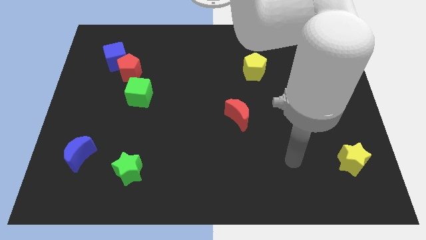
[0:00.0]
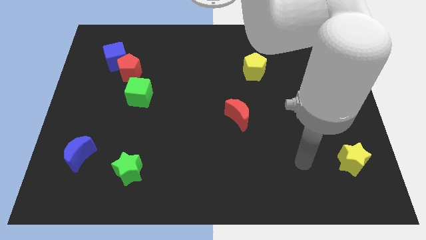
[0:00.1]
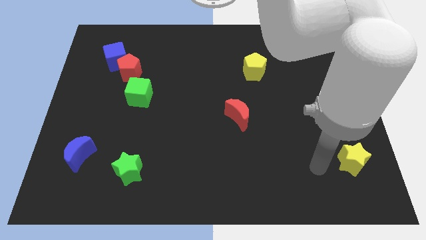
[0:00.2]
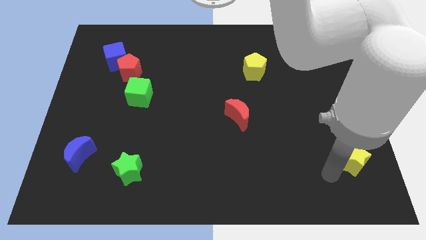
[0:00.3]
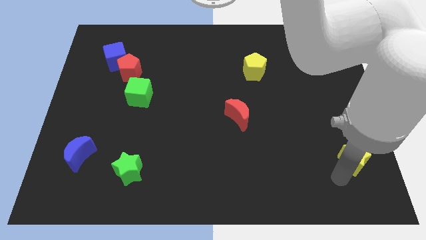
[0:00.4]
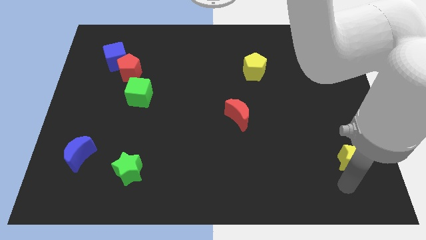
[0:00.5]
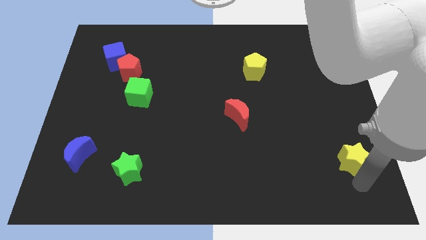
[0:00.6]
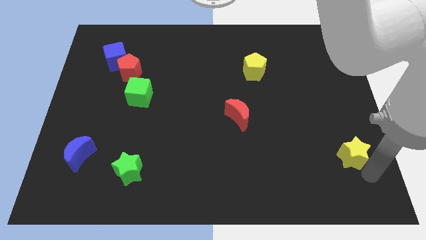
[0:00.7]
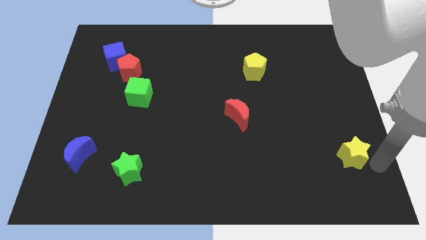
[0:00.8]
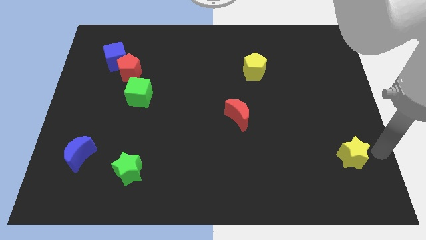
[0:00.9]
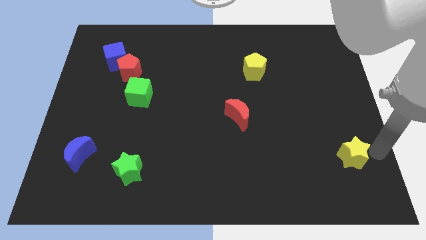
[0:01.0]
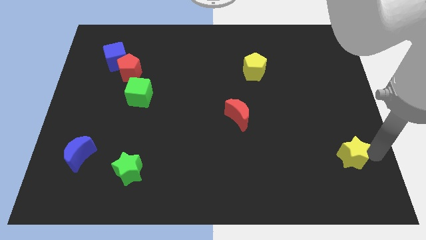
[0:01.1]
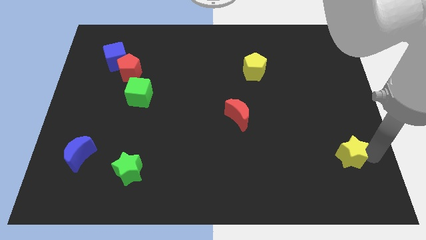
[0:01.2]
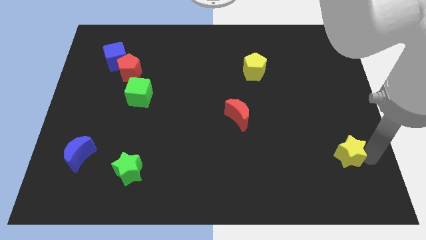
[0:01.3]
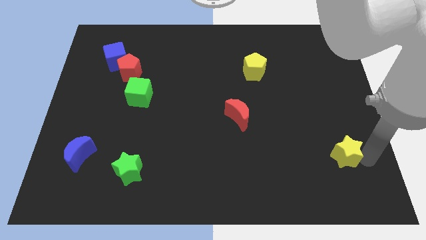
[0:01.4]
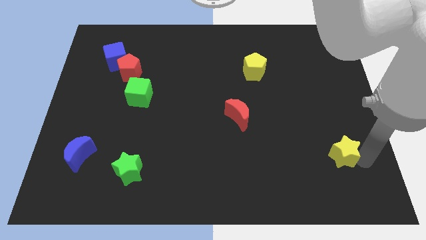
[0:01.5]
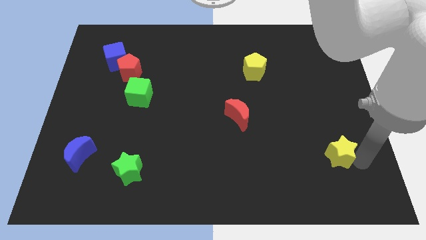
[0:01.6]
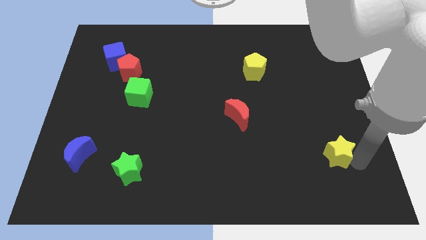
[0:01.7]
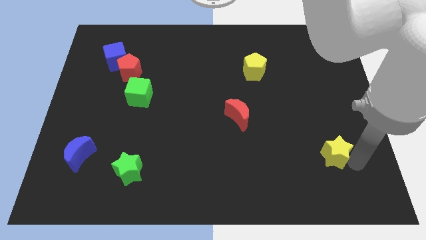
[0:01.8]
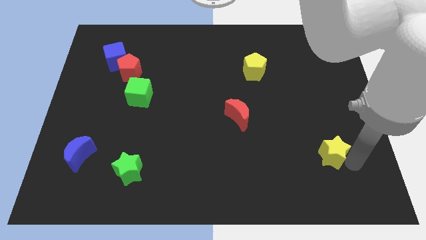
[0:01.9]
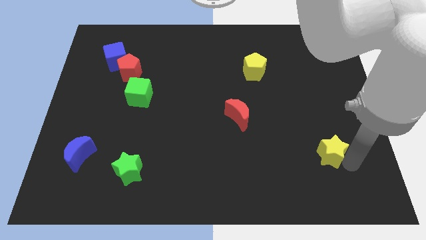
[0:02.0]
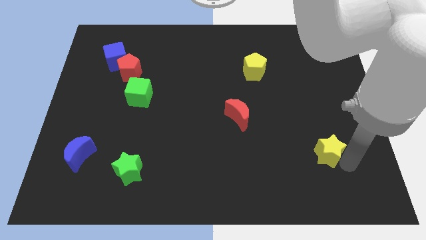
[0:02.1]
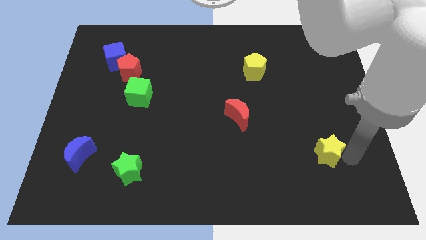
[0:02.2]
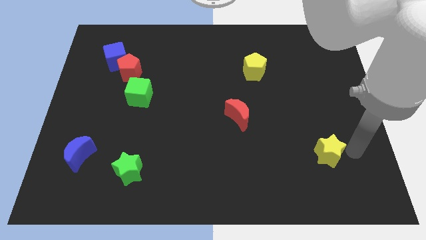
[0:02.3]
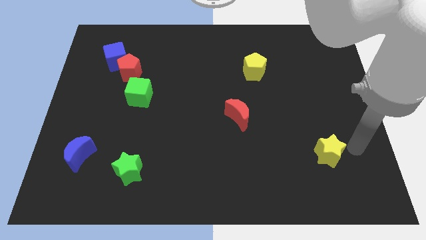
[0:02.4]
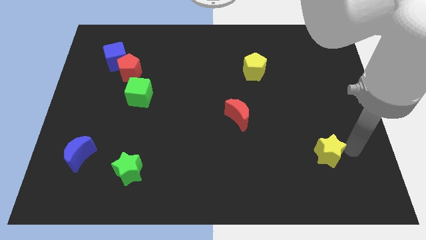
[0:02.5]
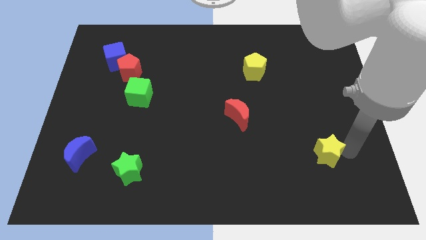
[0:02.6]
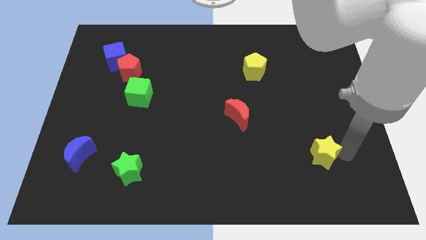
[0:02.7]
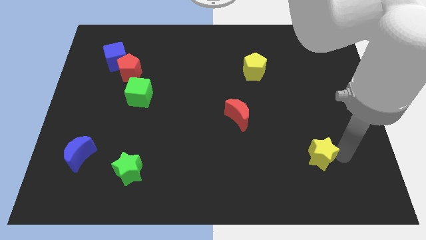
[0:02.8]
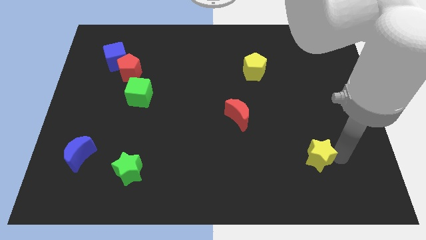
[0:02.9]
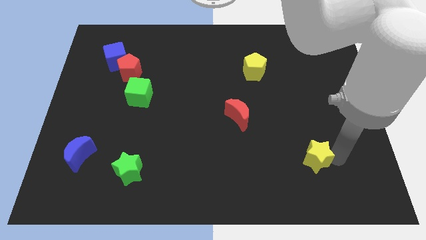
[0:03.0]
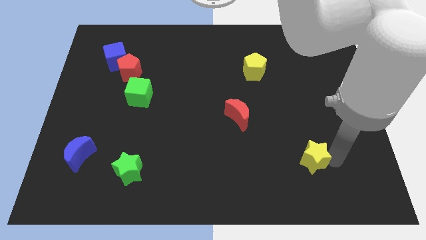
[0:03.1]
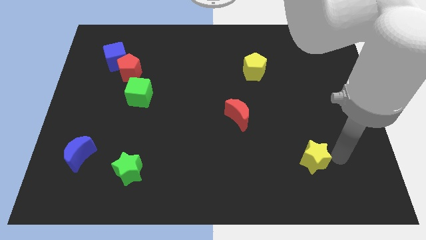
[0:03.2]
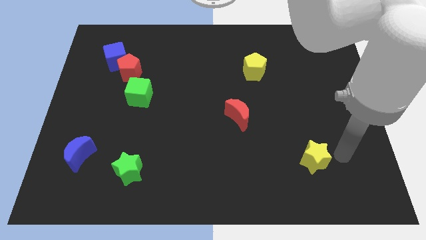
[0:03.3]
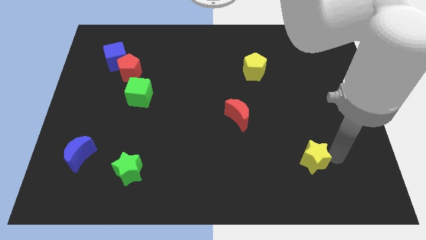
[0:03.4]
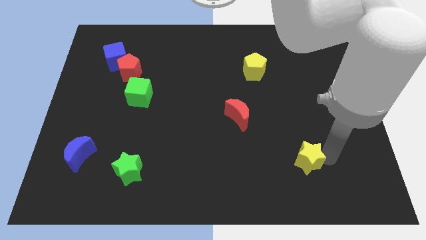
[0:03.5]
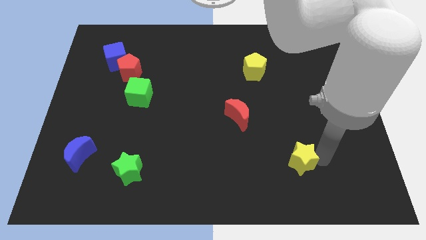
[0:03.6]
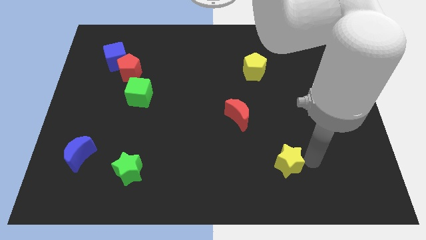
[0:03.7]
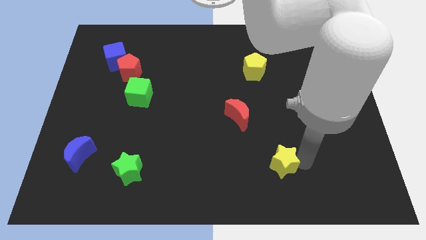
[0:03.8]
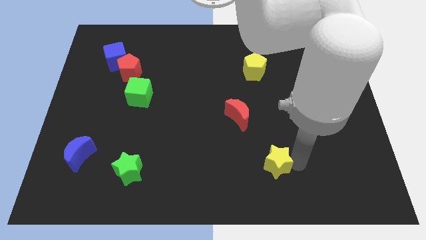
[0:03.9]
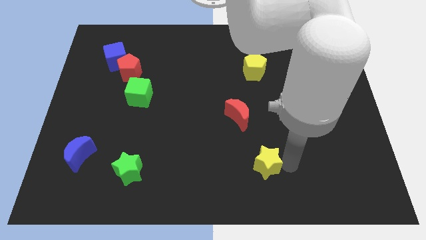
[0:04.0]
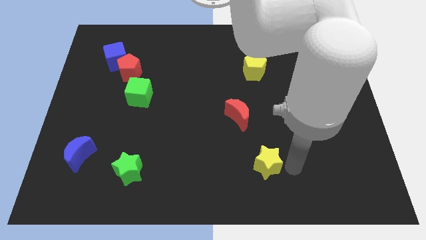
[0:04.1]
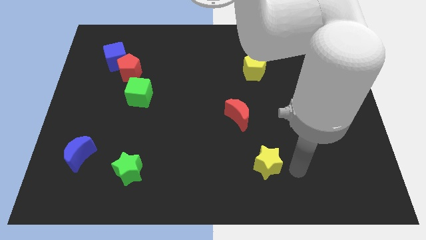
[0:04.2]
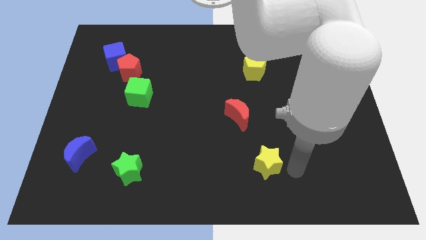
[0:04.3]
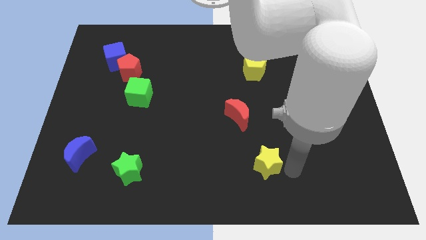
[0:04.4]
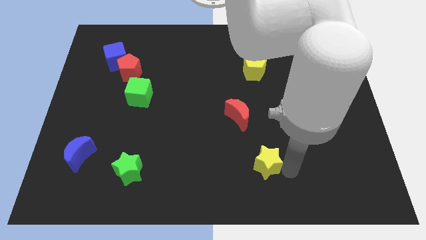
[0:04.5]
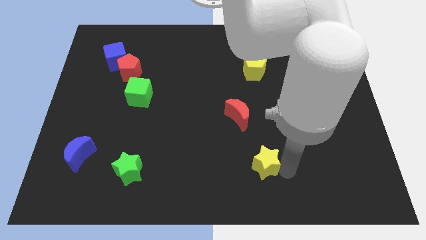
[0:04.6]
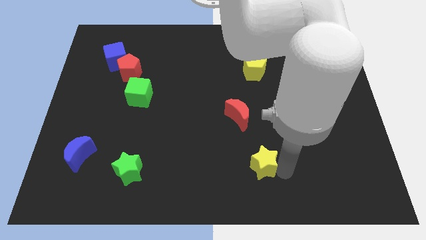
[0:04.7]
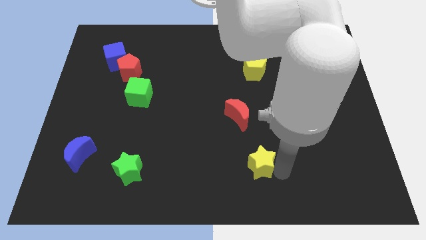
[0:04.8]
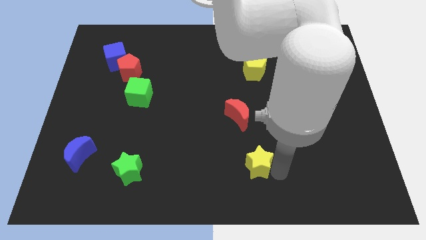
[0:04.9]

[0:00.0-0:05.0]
slide the yellow star to the left

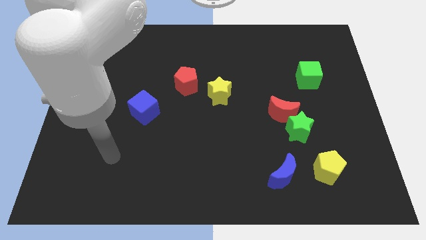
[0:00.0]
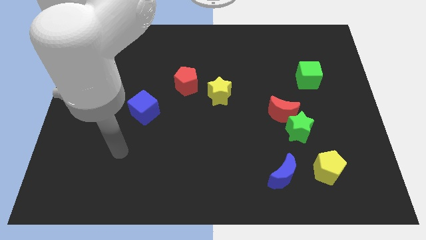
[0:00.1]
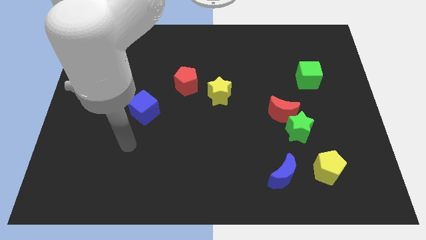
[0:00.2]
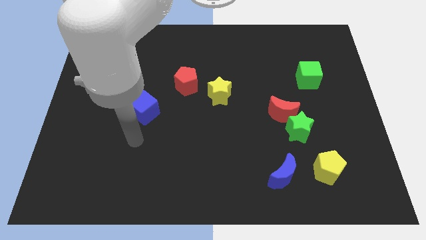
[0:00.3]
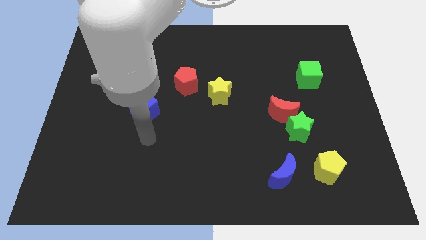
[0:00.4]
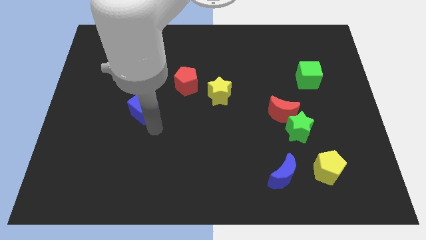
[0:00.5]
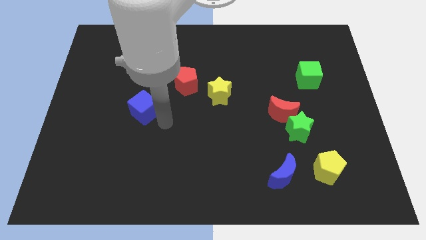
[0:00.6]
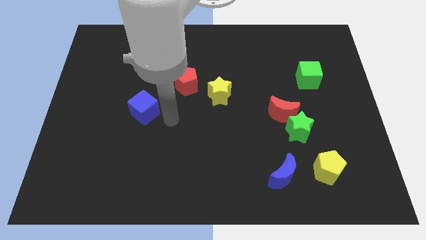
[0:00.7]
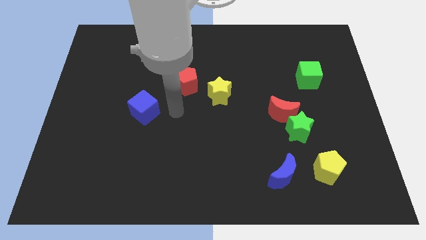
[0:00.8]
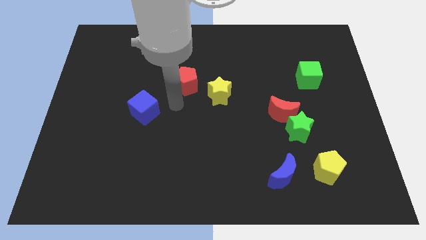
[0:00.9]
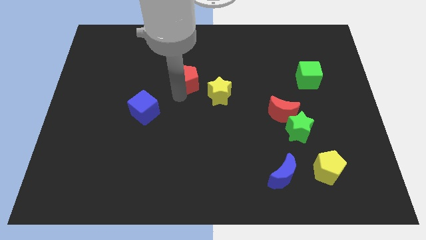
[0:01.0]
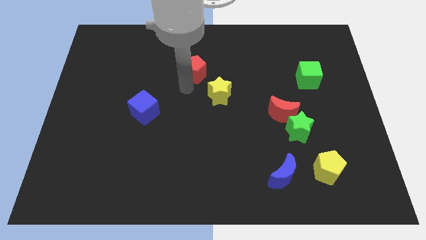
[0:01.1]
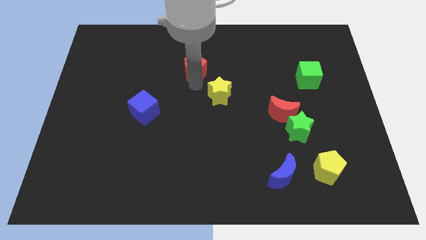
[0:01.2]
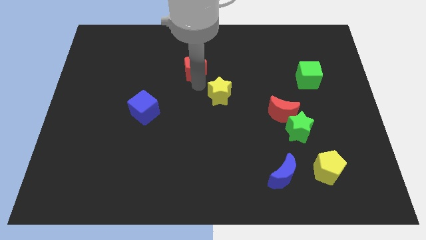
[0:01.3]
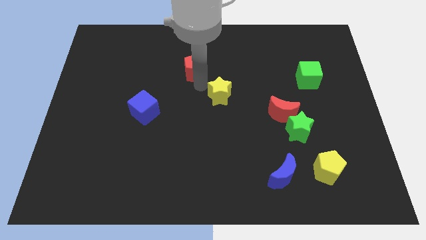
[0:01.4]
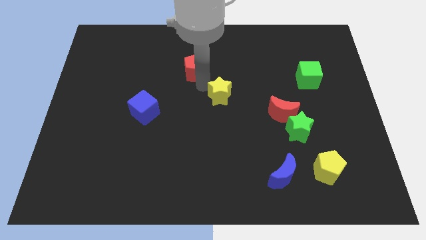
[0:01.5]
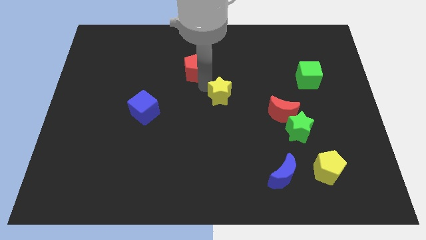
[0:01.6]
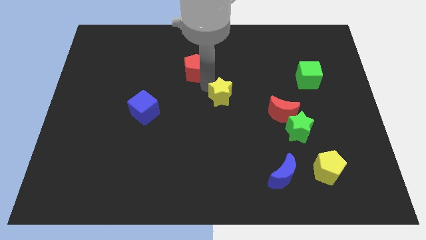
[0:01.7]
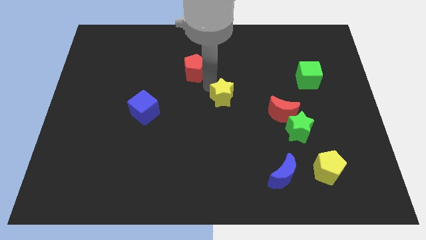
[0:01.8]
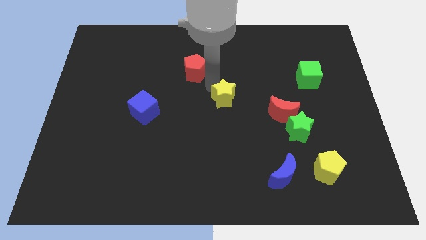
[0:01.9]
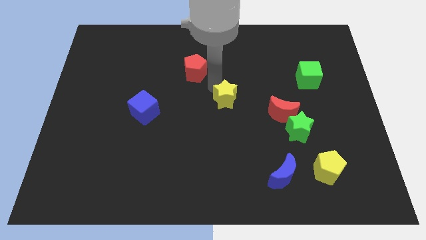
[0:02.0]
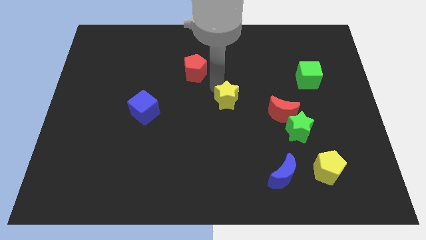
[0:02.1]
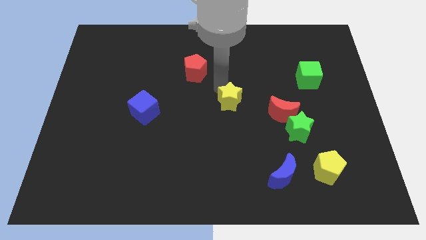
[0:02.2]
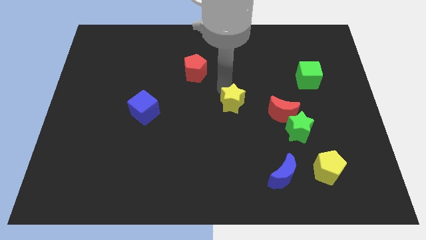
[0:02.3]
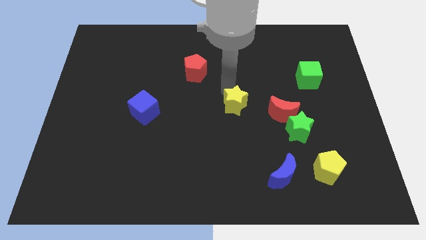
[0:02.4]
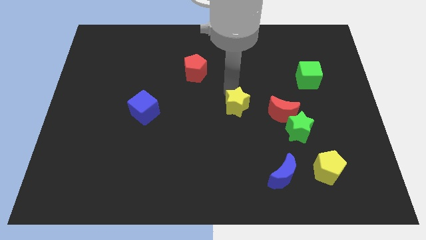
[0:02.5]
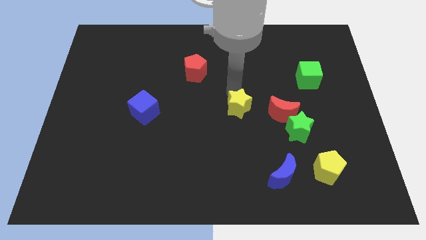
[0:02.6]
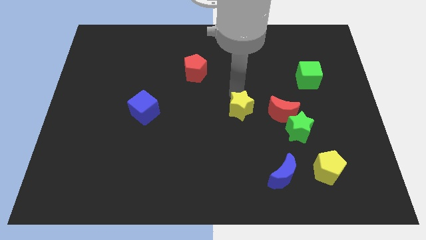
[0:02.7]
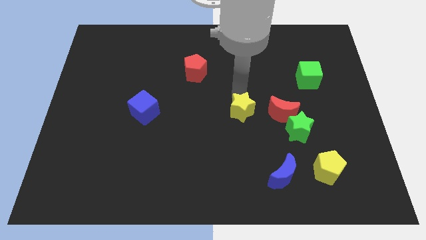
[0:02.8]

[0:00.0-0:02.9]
slide the yellow star a little bit diagonally downwards and right
